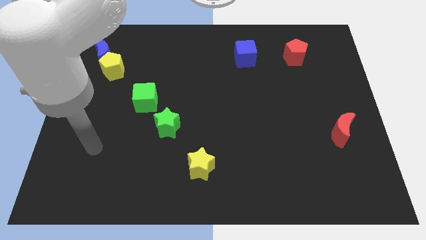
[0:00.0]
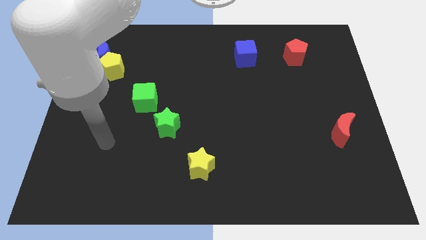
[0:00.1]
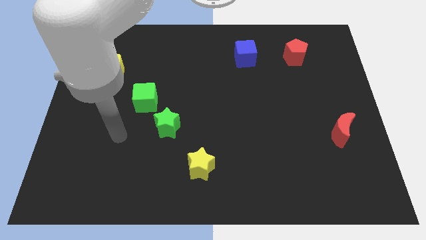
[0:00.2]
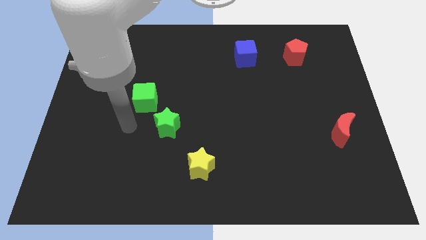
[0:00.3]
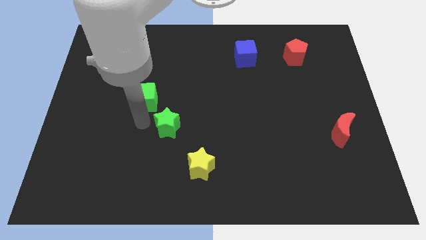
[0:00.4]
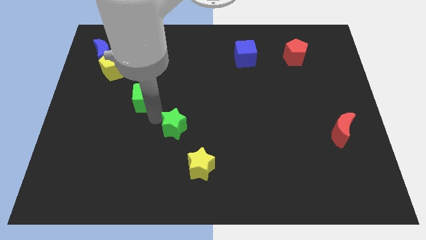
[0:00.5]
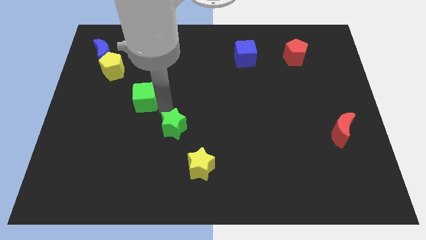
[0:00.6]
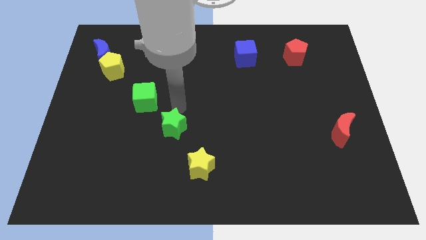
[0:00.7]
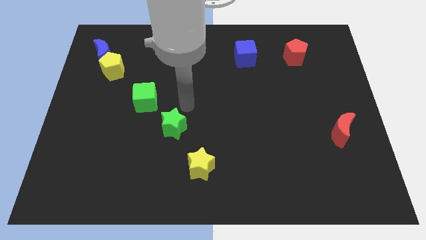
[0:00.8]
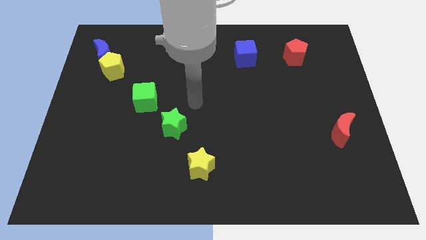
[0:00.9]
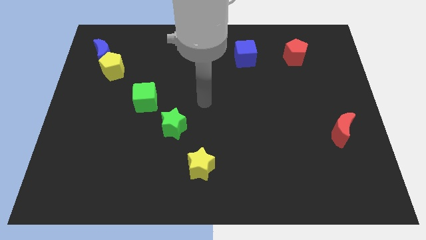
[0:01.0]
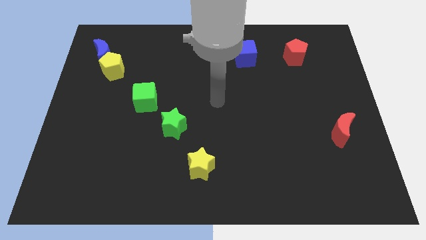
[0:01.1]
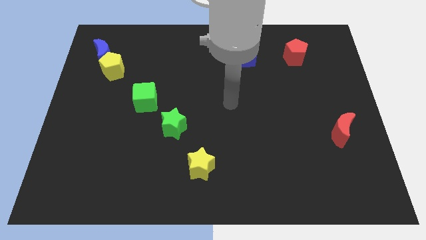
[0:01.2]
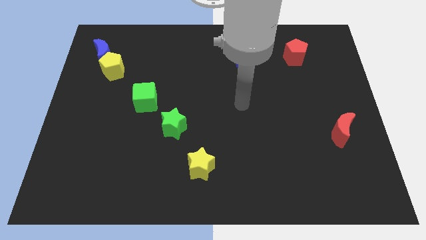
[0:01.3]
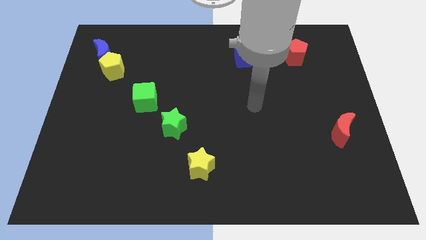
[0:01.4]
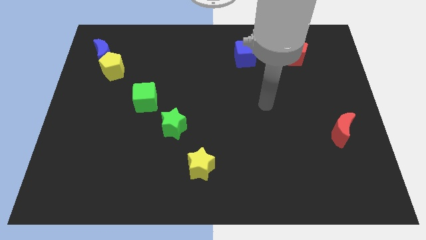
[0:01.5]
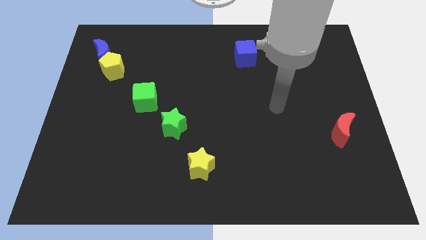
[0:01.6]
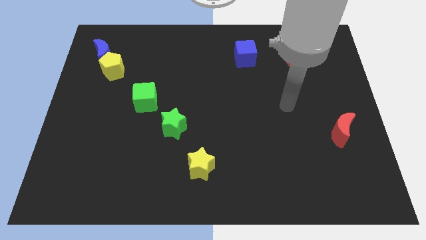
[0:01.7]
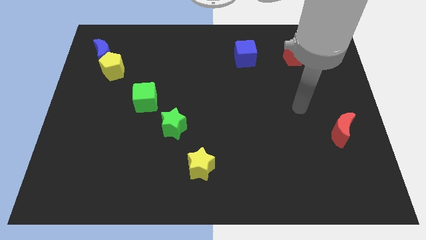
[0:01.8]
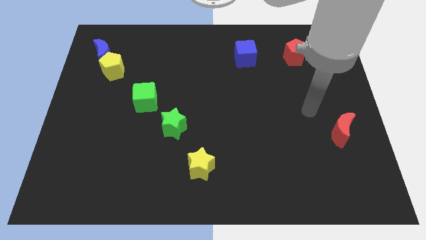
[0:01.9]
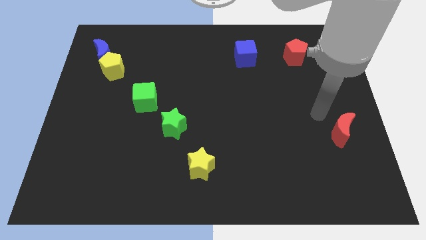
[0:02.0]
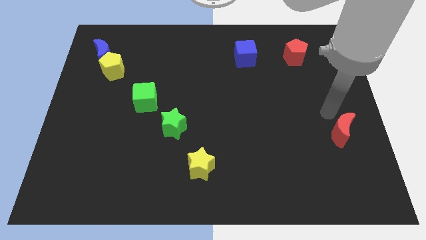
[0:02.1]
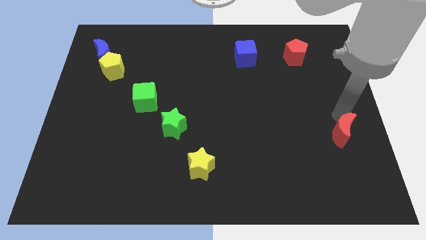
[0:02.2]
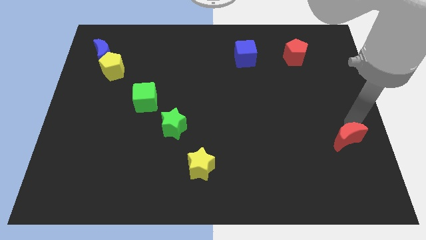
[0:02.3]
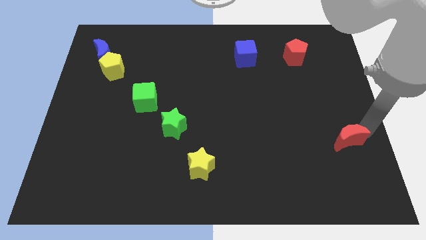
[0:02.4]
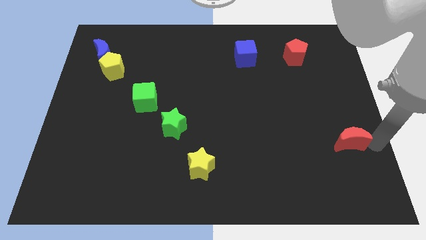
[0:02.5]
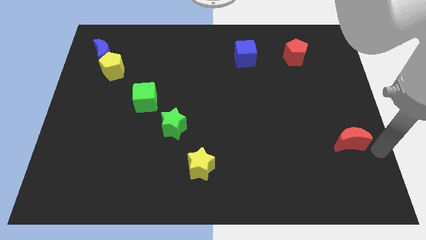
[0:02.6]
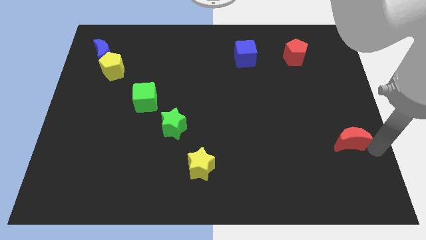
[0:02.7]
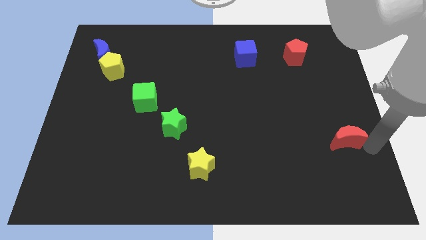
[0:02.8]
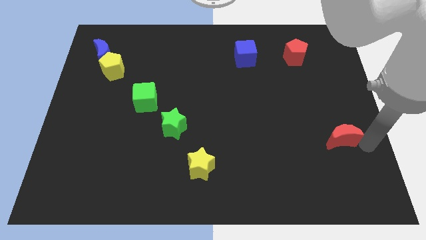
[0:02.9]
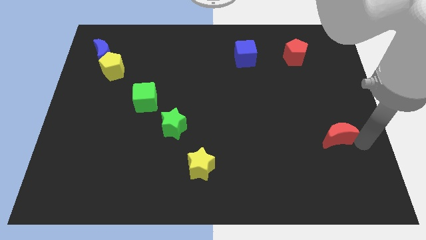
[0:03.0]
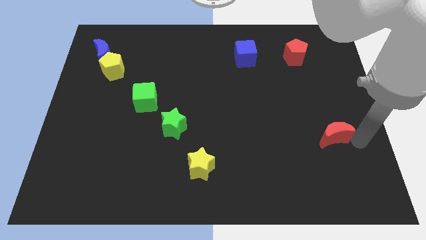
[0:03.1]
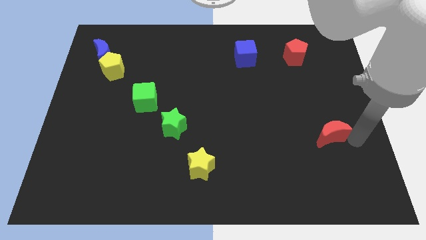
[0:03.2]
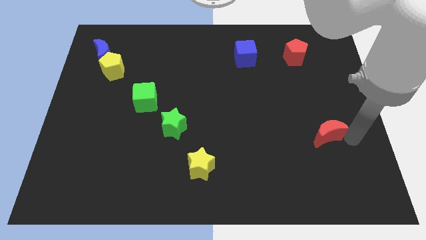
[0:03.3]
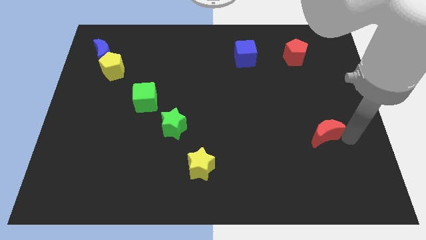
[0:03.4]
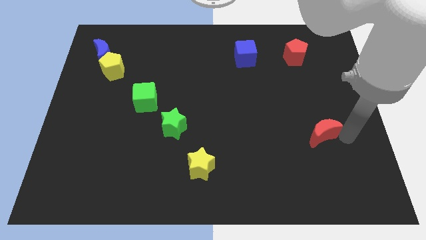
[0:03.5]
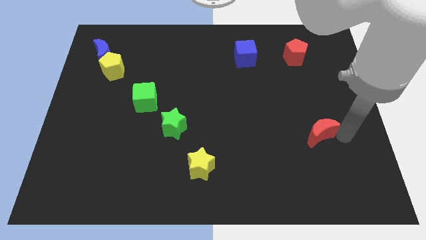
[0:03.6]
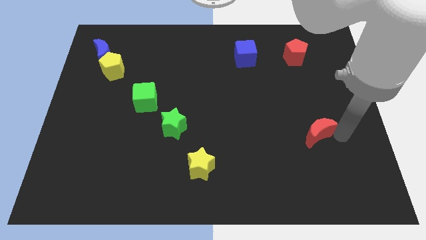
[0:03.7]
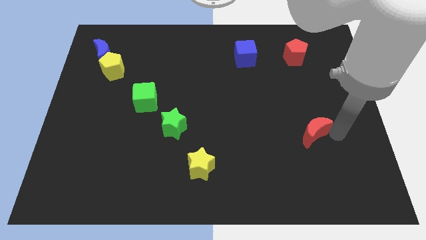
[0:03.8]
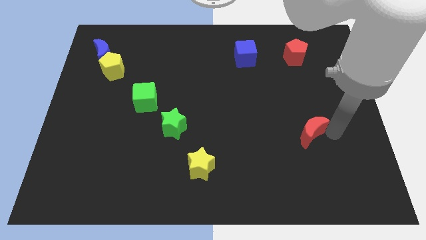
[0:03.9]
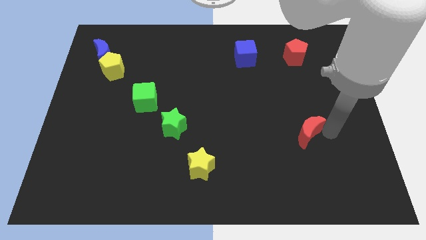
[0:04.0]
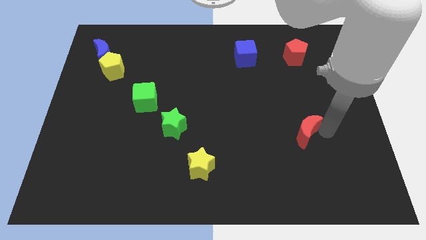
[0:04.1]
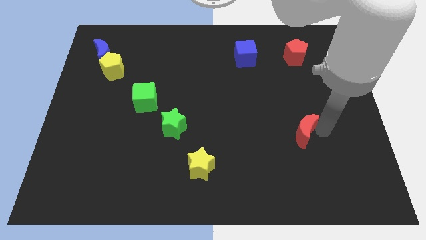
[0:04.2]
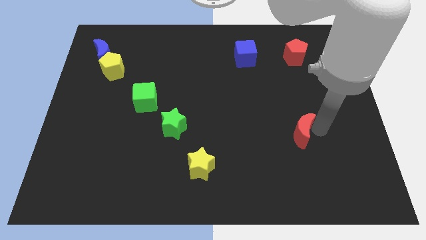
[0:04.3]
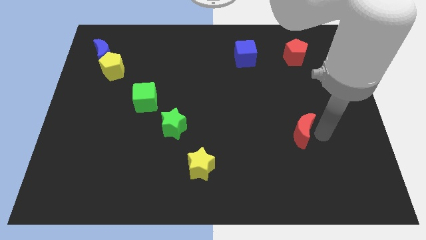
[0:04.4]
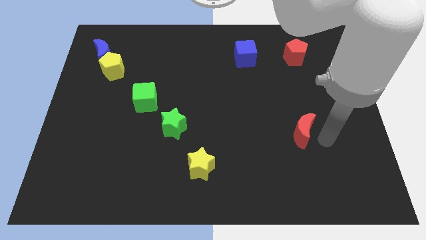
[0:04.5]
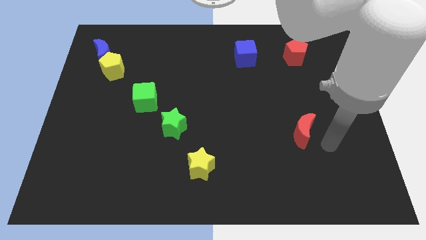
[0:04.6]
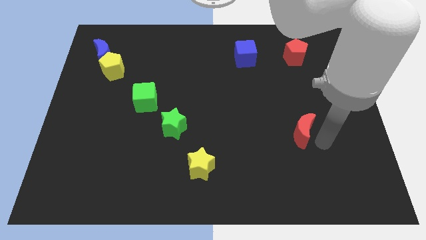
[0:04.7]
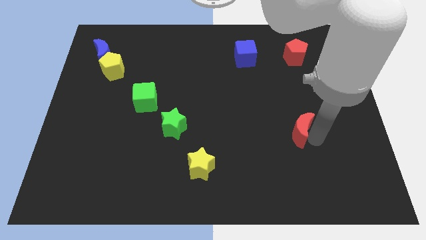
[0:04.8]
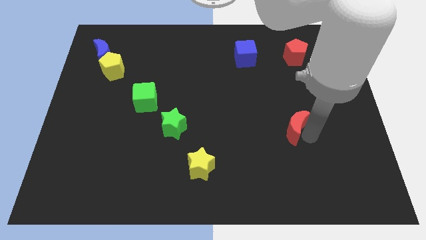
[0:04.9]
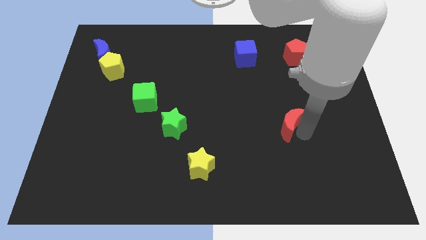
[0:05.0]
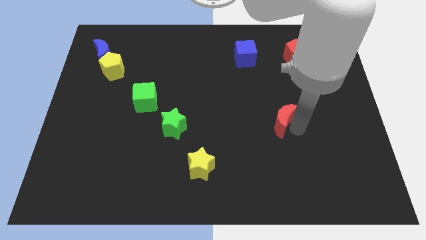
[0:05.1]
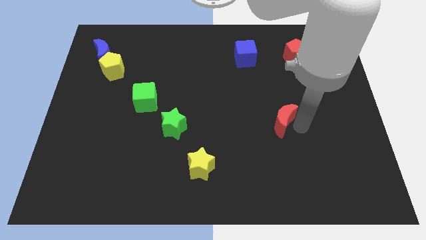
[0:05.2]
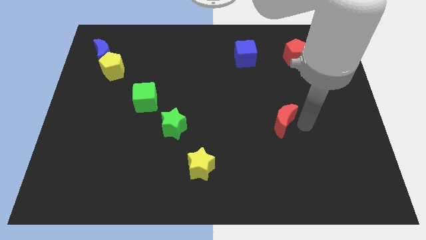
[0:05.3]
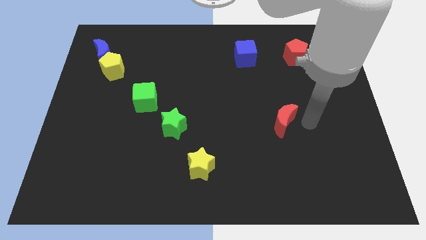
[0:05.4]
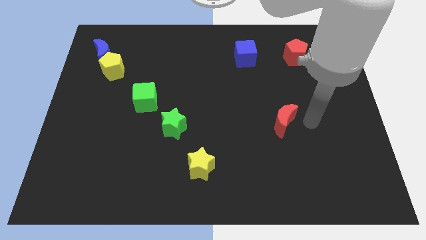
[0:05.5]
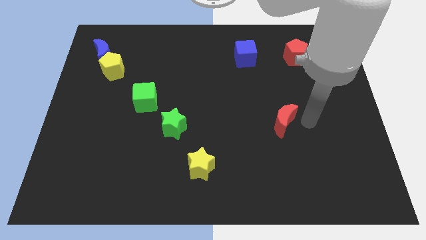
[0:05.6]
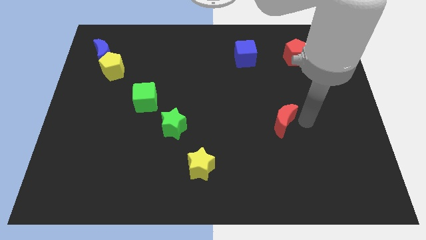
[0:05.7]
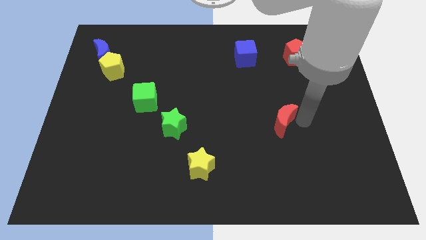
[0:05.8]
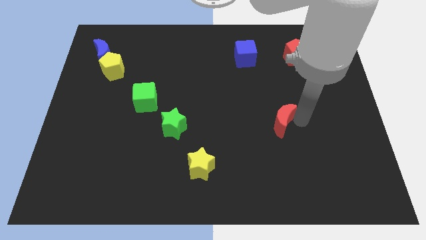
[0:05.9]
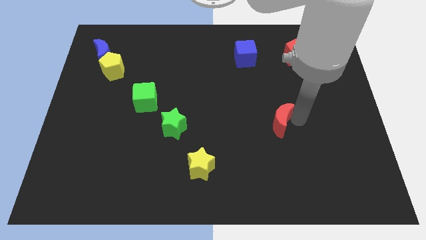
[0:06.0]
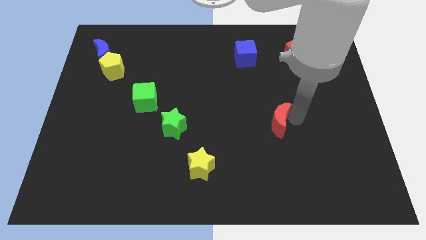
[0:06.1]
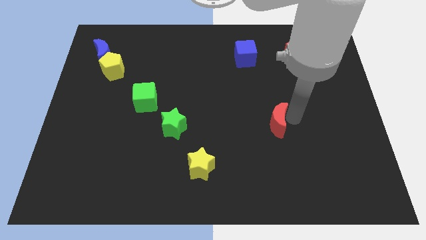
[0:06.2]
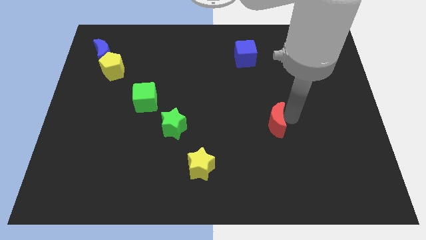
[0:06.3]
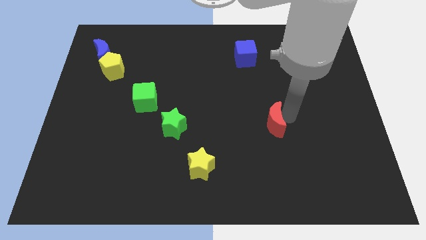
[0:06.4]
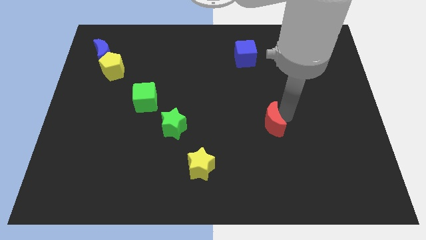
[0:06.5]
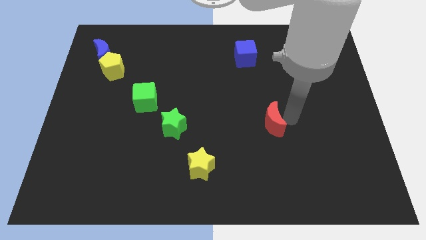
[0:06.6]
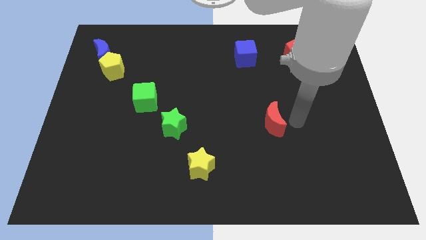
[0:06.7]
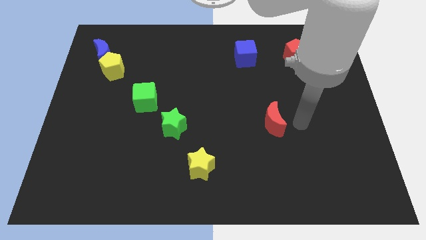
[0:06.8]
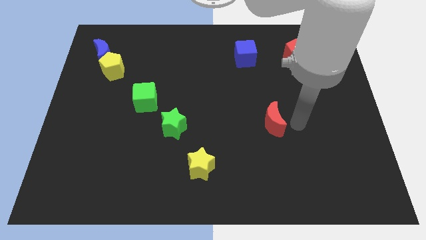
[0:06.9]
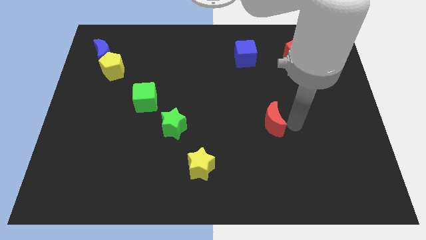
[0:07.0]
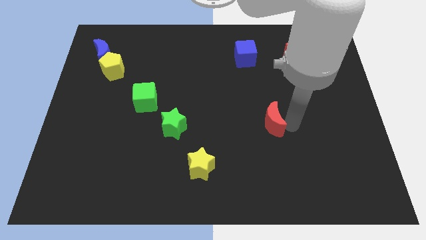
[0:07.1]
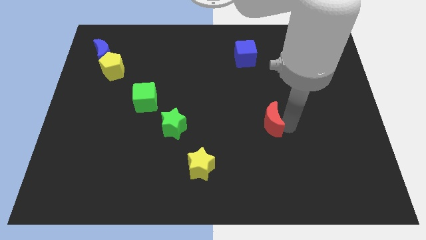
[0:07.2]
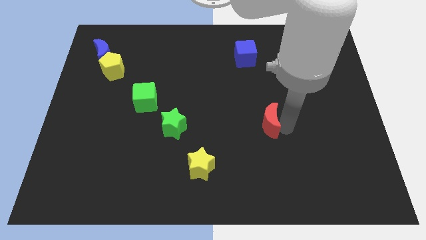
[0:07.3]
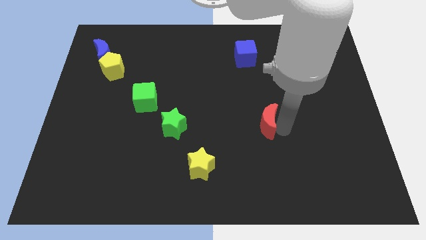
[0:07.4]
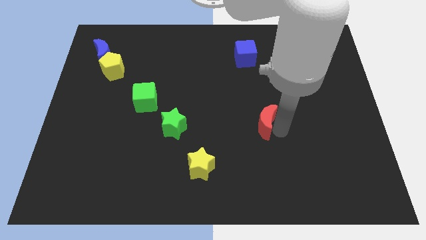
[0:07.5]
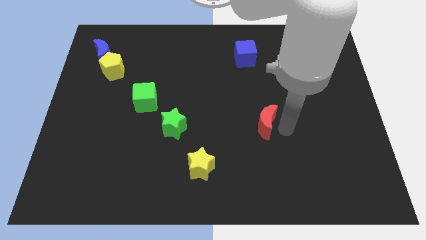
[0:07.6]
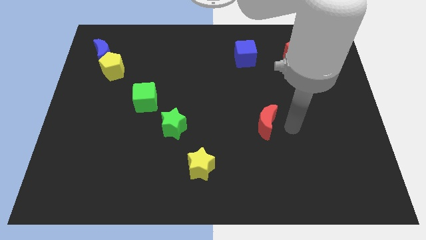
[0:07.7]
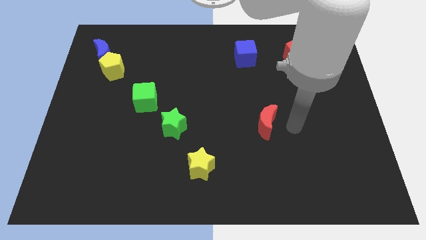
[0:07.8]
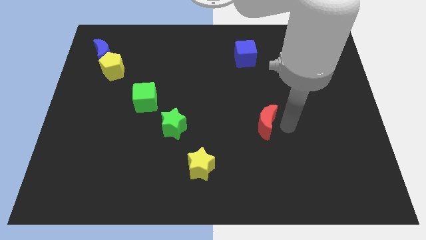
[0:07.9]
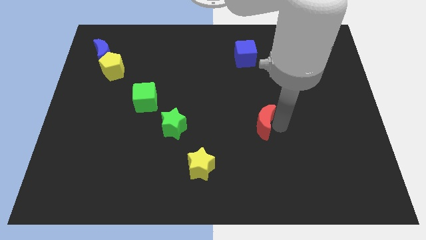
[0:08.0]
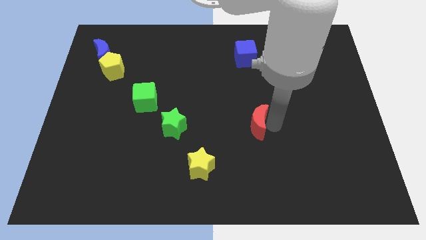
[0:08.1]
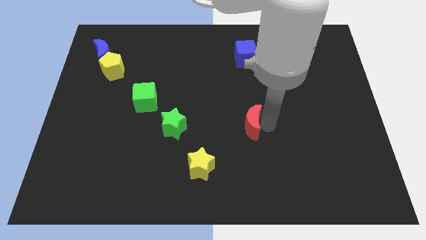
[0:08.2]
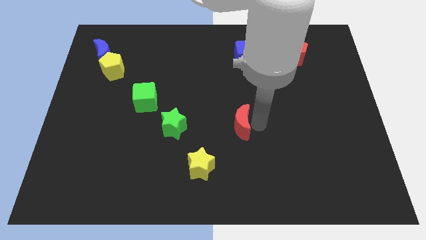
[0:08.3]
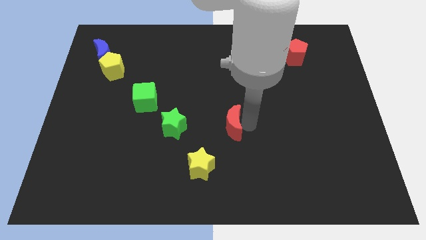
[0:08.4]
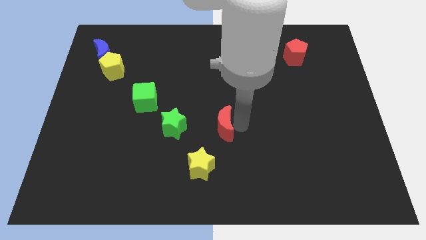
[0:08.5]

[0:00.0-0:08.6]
slide the red moon to the top of the yellow star
